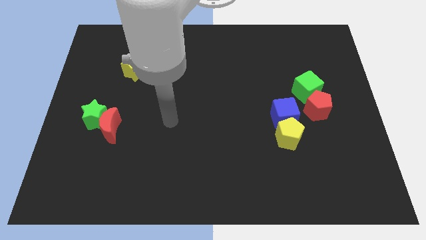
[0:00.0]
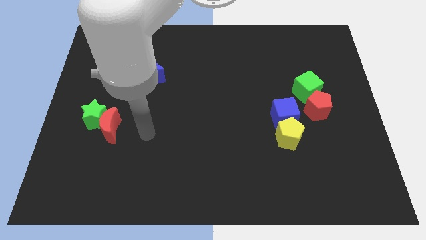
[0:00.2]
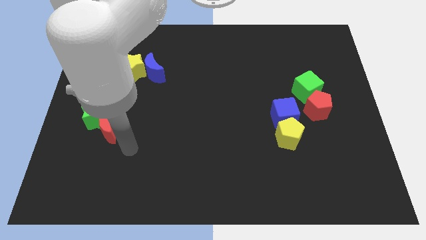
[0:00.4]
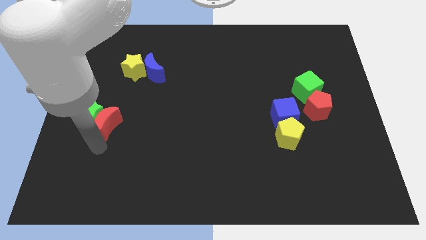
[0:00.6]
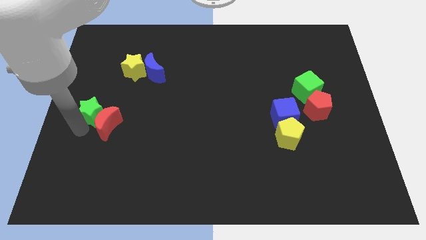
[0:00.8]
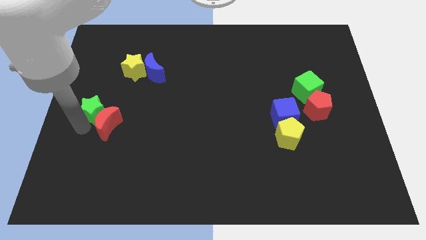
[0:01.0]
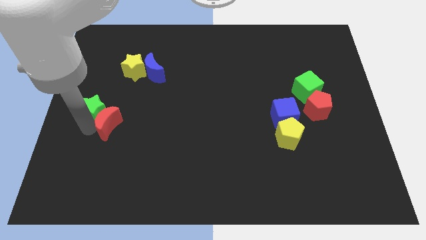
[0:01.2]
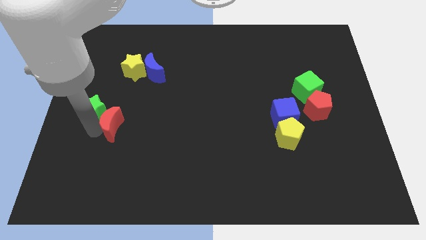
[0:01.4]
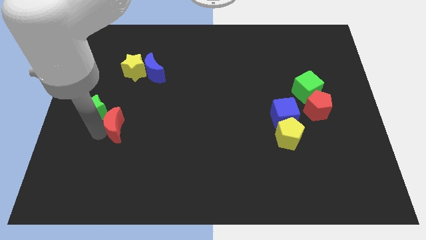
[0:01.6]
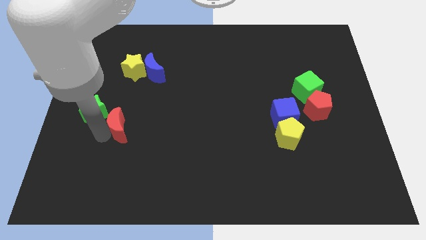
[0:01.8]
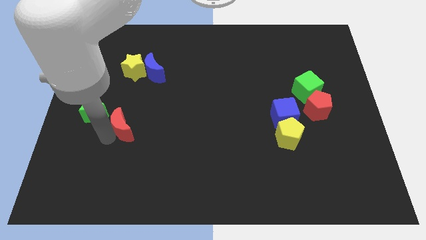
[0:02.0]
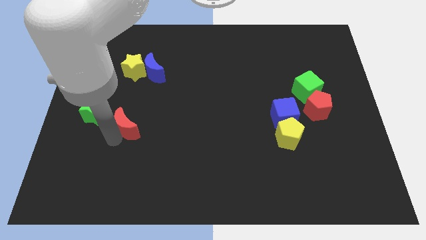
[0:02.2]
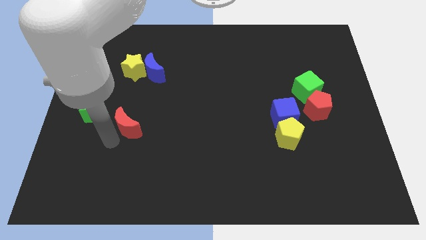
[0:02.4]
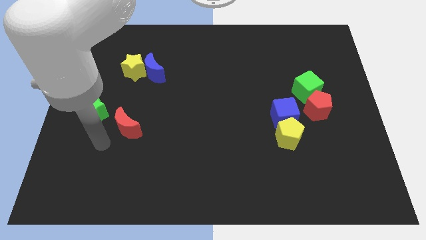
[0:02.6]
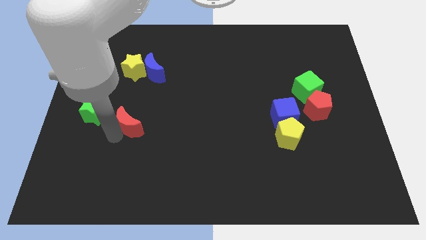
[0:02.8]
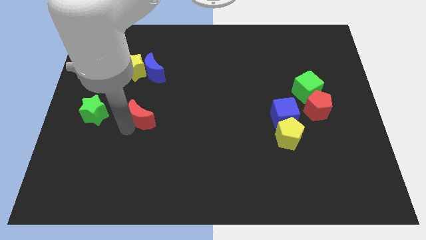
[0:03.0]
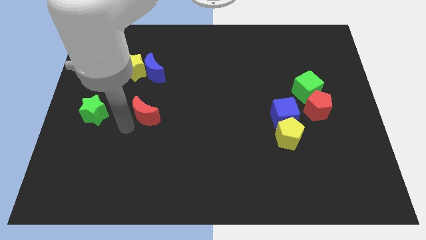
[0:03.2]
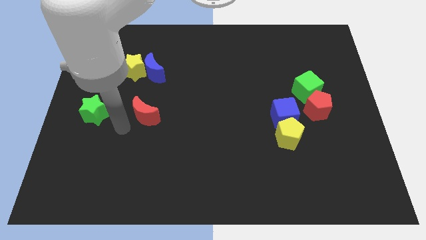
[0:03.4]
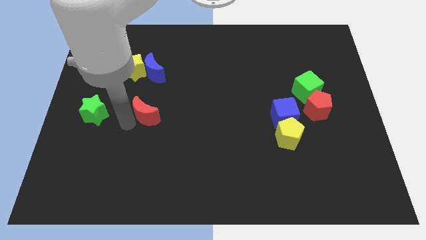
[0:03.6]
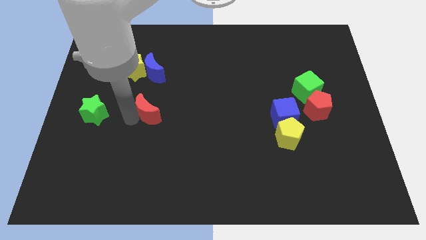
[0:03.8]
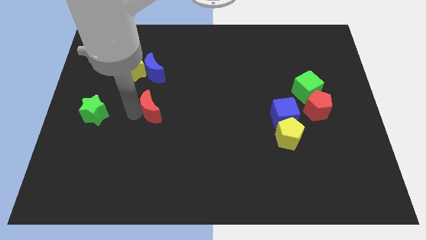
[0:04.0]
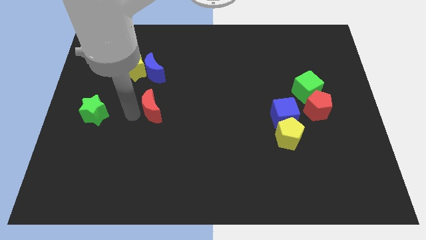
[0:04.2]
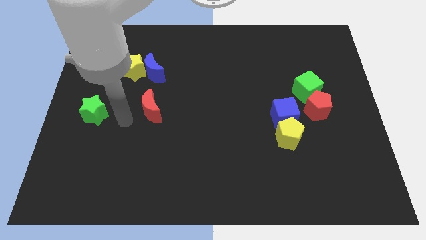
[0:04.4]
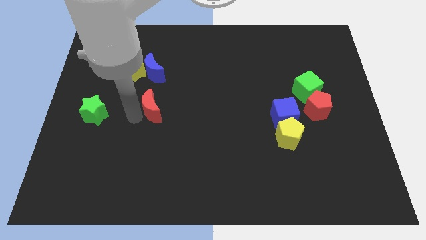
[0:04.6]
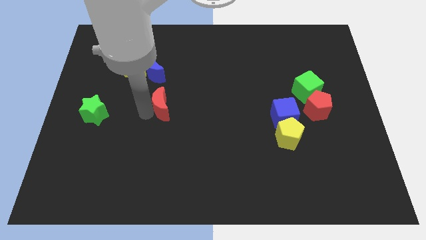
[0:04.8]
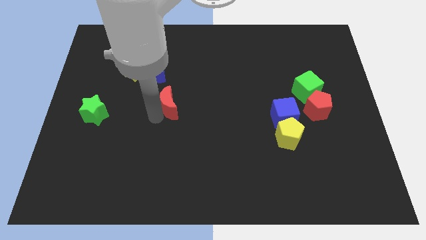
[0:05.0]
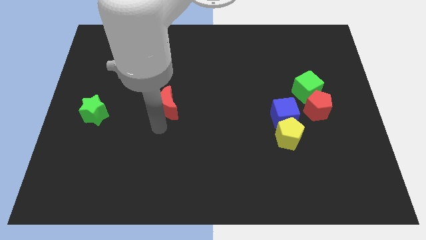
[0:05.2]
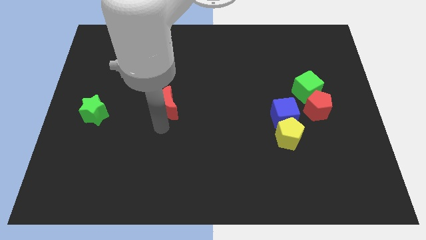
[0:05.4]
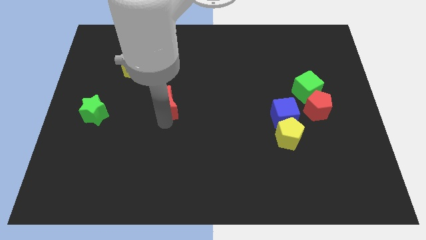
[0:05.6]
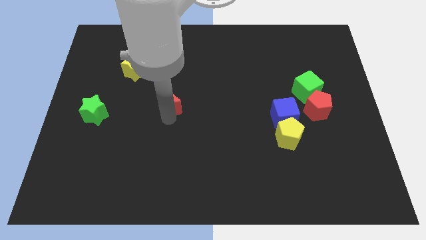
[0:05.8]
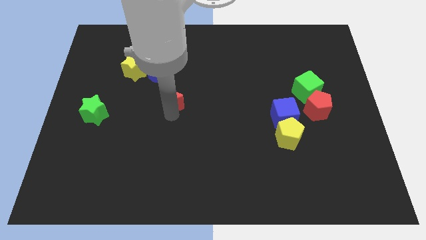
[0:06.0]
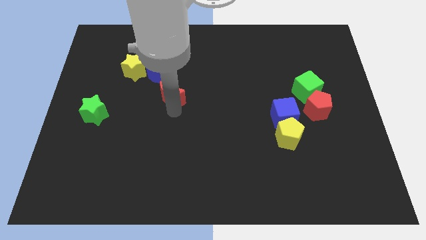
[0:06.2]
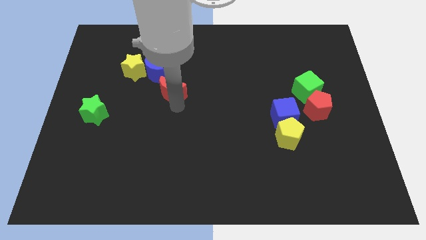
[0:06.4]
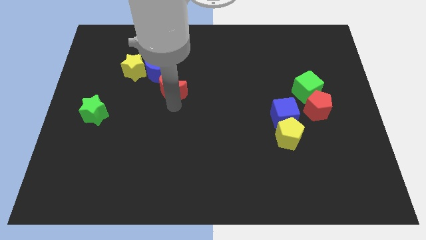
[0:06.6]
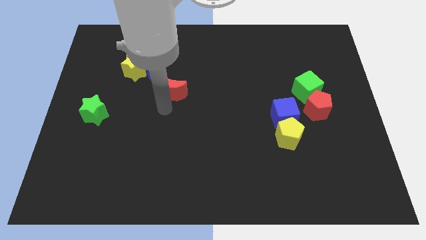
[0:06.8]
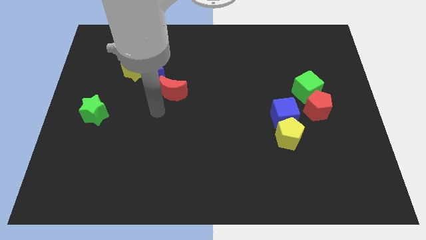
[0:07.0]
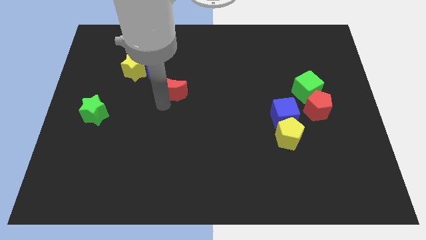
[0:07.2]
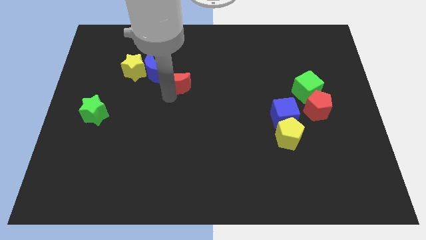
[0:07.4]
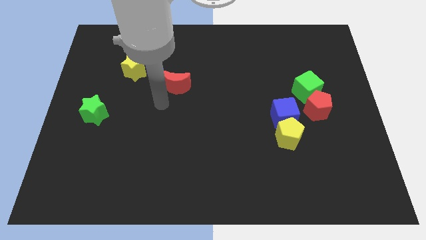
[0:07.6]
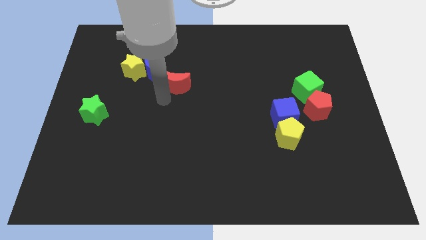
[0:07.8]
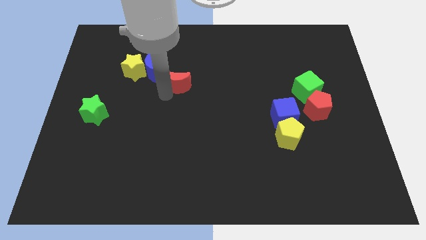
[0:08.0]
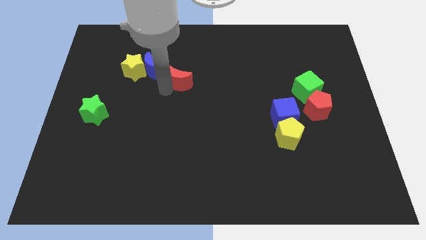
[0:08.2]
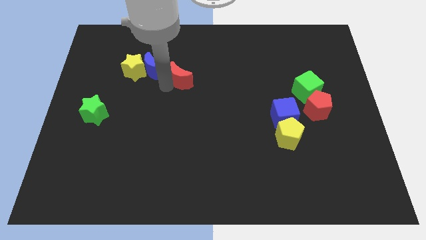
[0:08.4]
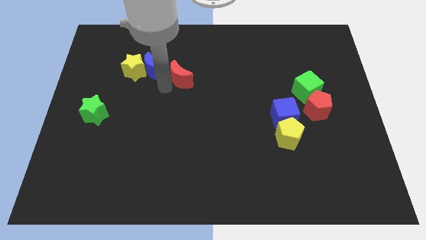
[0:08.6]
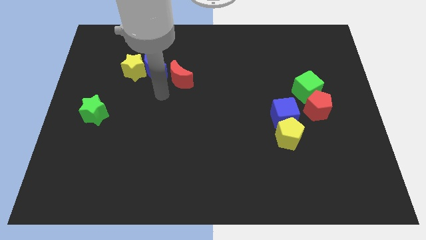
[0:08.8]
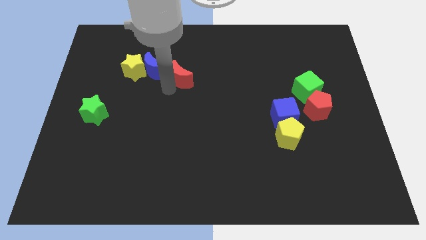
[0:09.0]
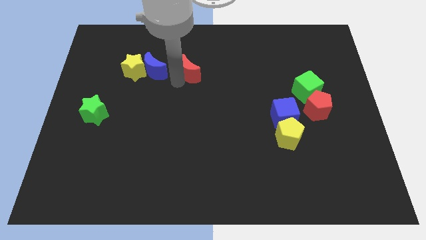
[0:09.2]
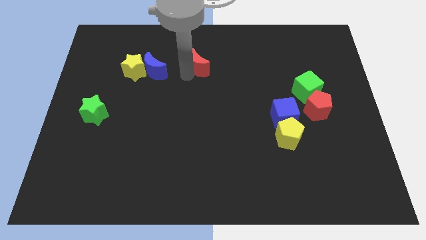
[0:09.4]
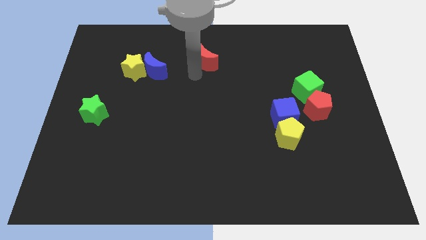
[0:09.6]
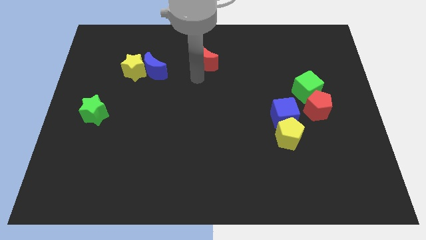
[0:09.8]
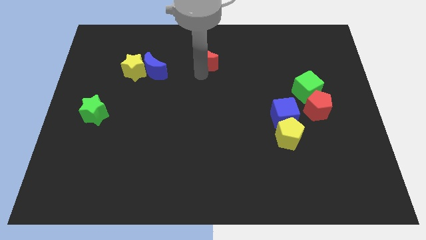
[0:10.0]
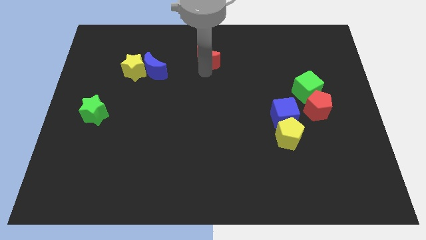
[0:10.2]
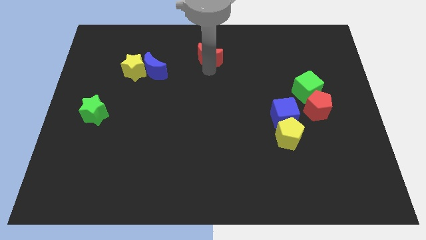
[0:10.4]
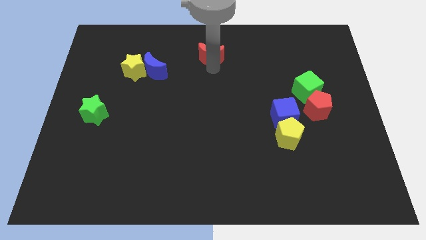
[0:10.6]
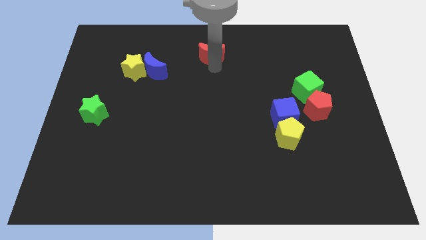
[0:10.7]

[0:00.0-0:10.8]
put the red moon to the top

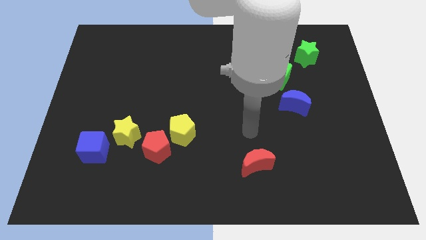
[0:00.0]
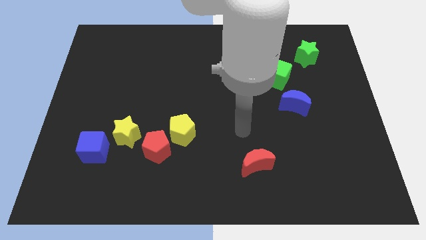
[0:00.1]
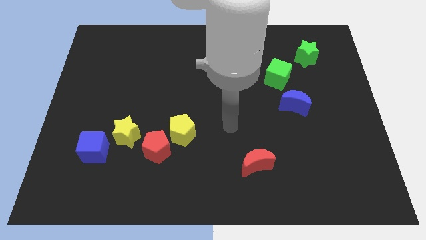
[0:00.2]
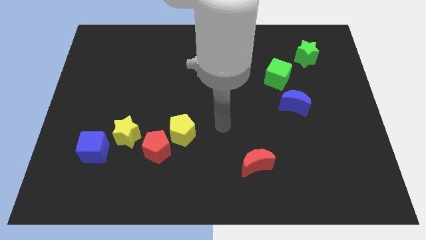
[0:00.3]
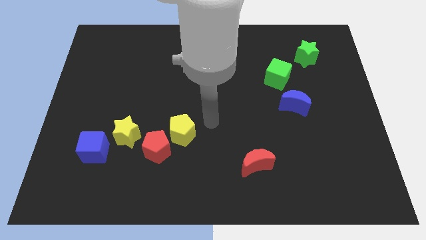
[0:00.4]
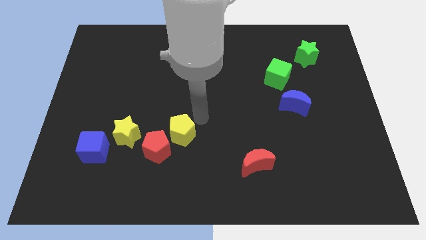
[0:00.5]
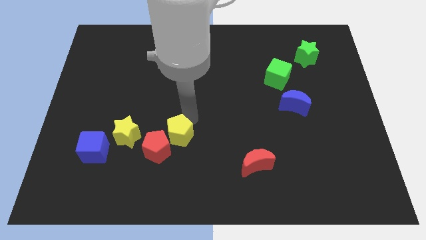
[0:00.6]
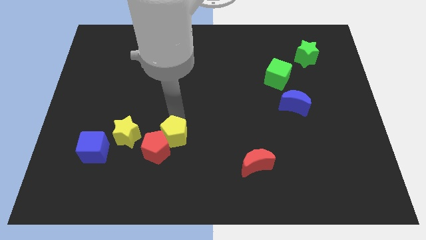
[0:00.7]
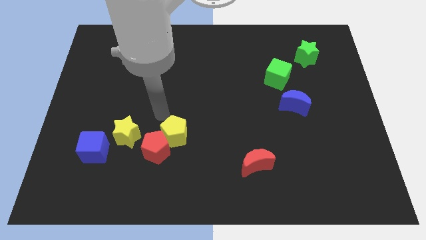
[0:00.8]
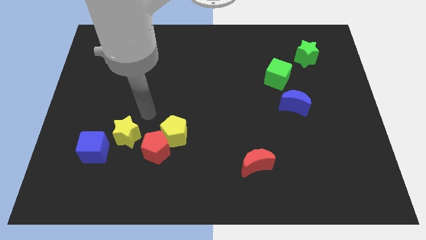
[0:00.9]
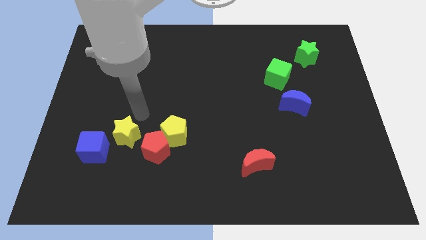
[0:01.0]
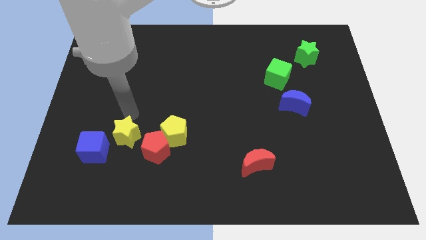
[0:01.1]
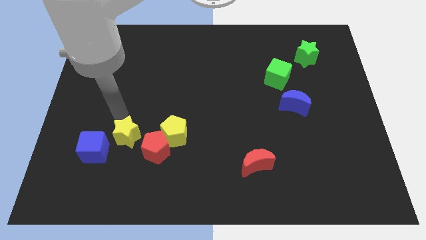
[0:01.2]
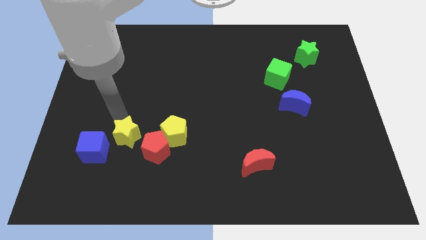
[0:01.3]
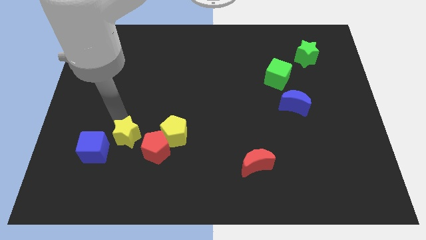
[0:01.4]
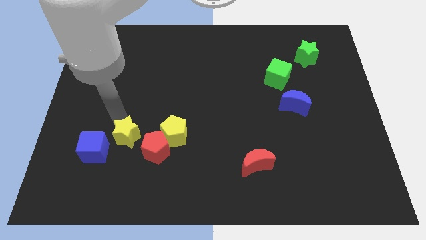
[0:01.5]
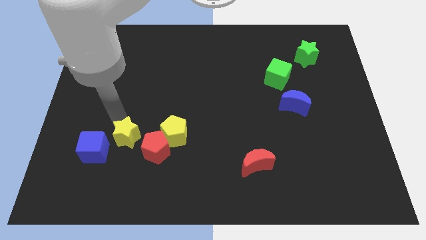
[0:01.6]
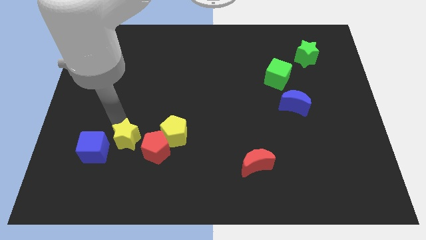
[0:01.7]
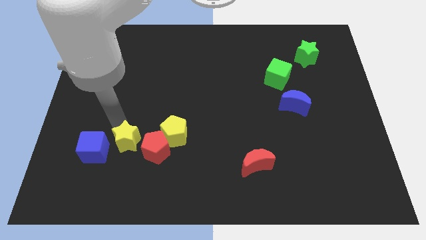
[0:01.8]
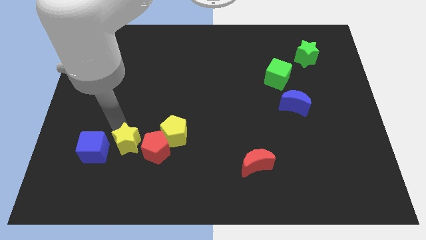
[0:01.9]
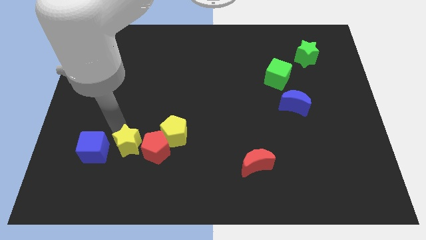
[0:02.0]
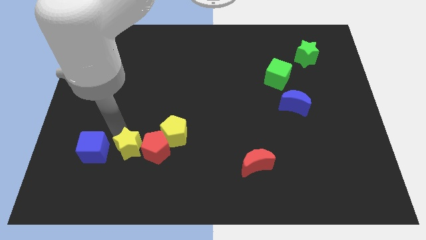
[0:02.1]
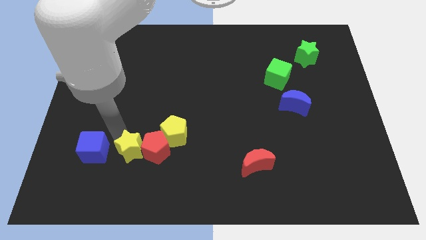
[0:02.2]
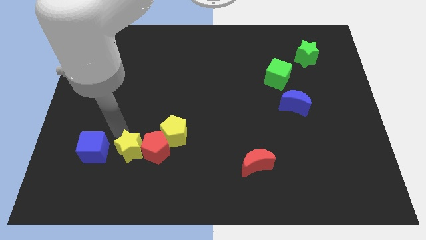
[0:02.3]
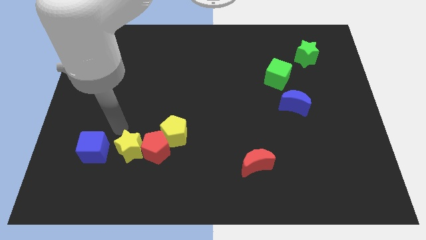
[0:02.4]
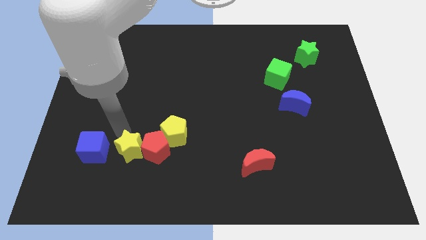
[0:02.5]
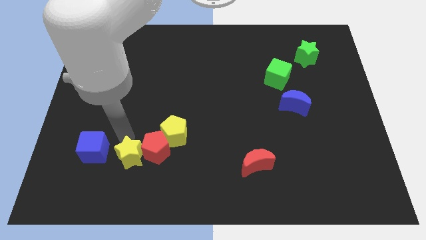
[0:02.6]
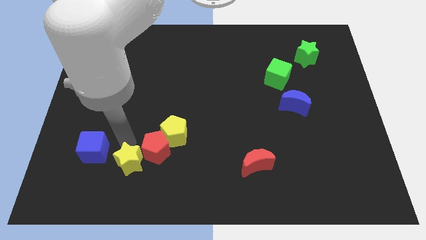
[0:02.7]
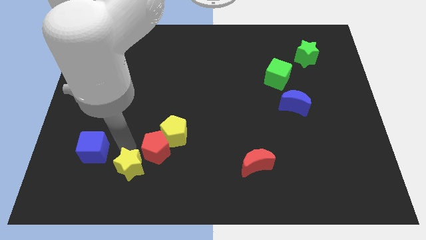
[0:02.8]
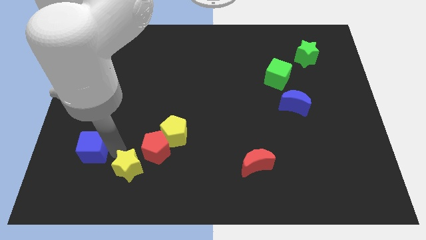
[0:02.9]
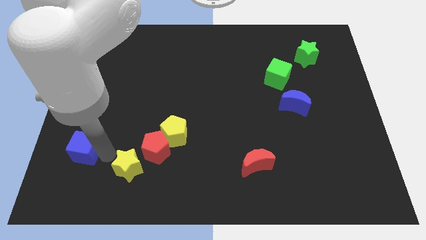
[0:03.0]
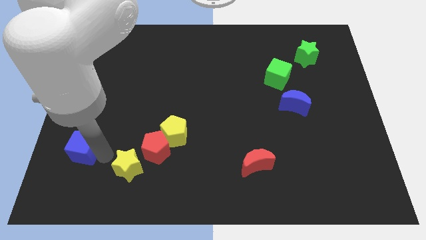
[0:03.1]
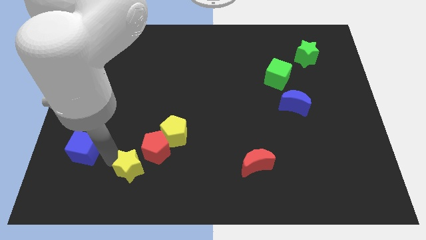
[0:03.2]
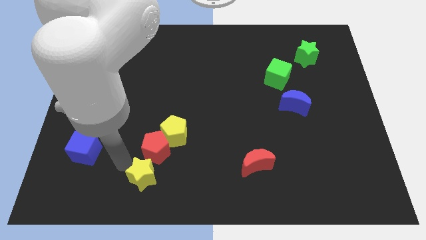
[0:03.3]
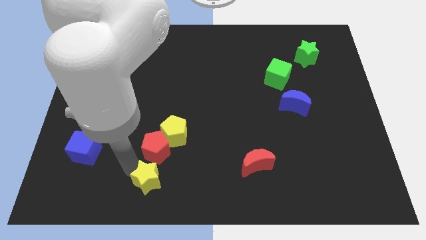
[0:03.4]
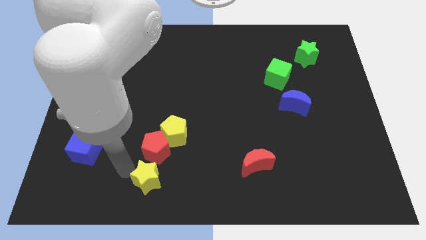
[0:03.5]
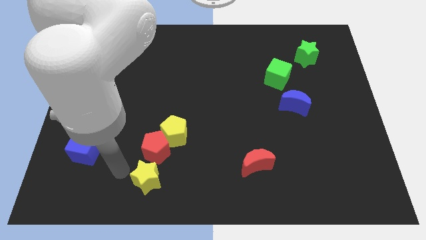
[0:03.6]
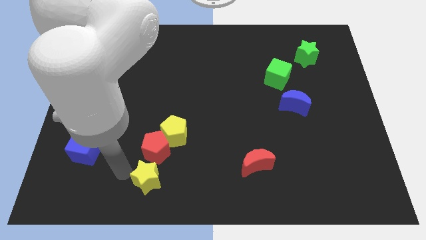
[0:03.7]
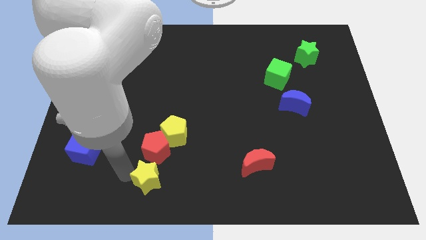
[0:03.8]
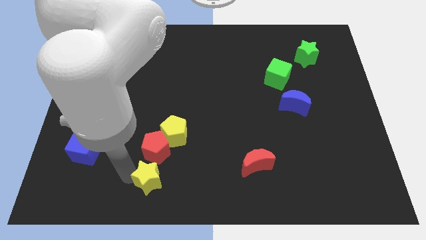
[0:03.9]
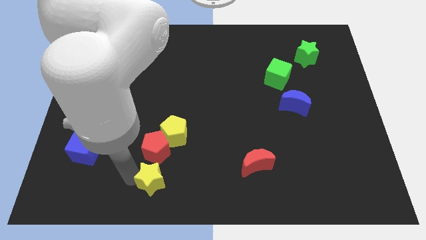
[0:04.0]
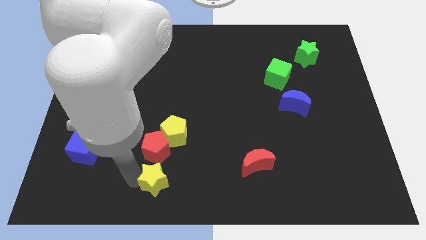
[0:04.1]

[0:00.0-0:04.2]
push the yellow star to the bottom
